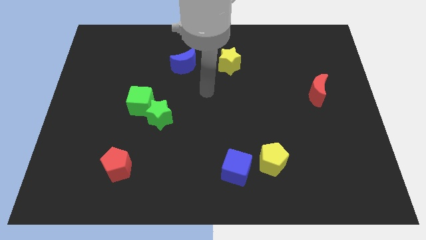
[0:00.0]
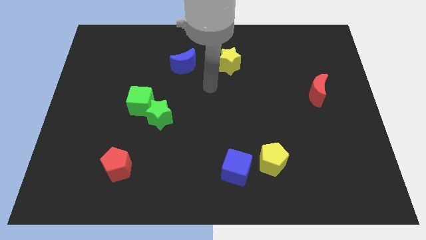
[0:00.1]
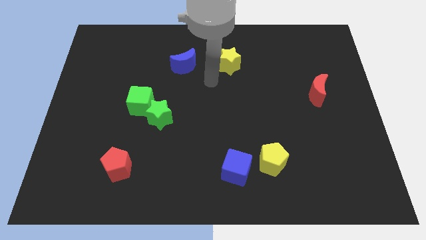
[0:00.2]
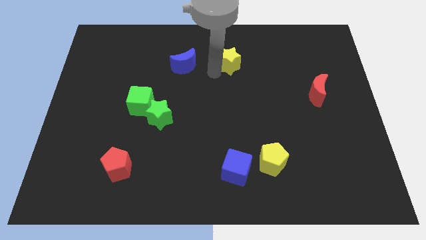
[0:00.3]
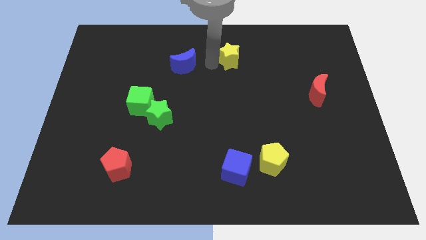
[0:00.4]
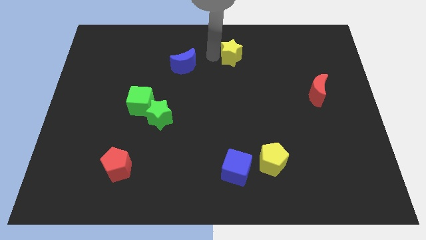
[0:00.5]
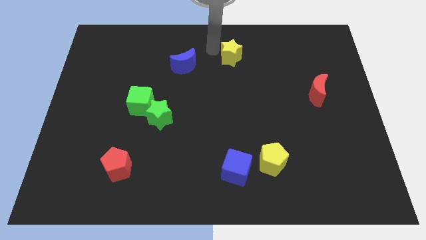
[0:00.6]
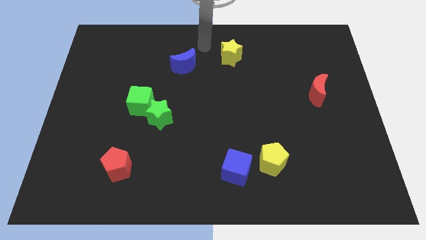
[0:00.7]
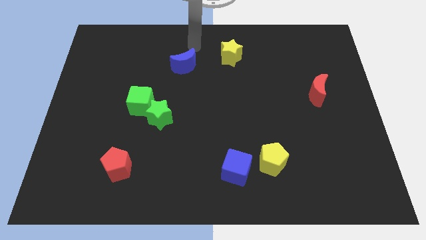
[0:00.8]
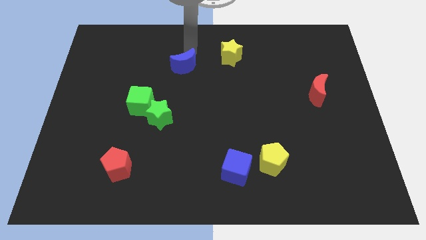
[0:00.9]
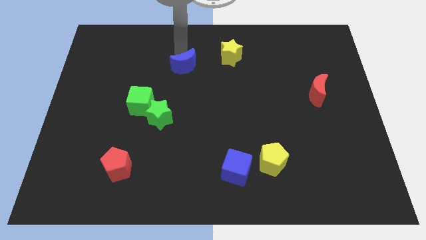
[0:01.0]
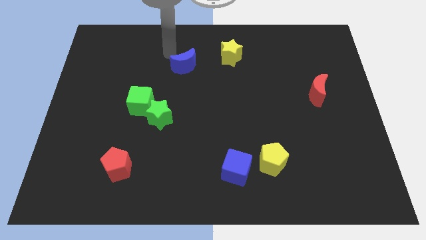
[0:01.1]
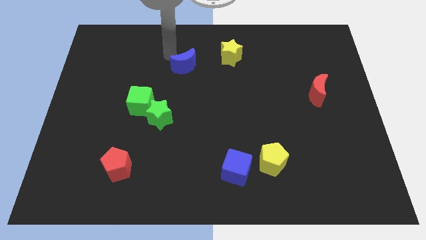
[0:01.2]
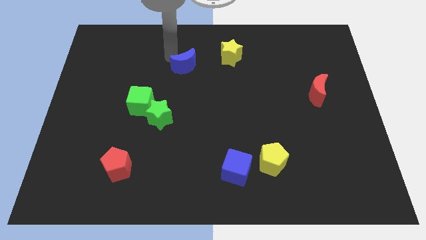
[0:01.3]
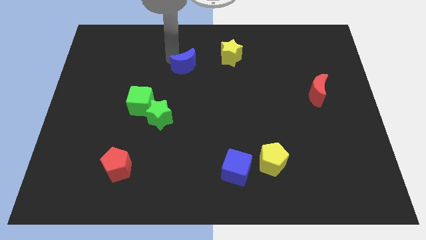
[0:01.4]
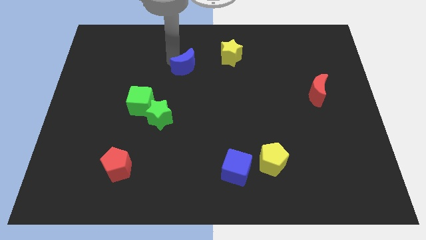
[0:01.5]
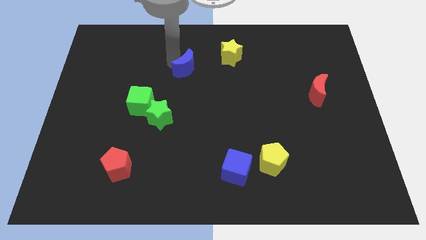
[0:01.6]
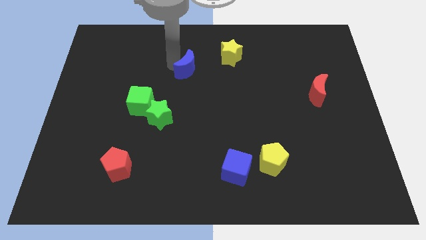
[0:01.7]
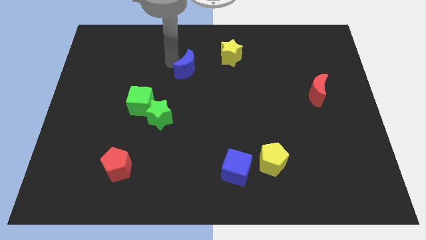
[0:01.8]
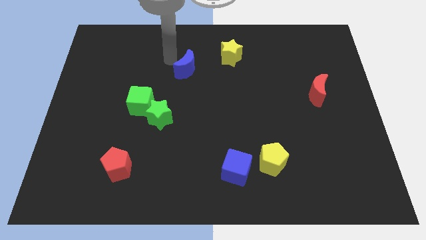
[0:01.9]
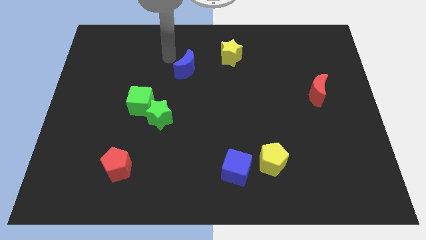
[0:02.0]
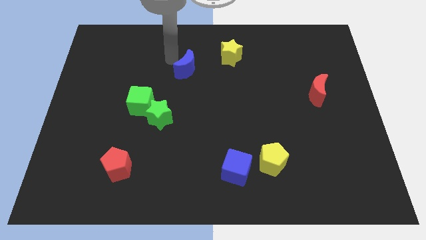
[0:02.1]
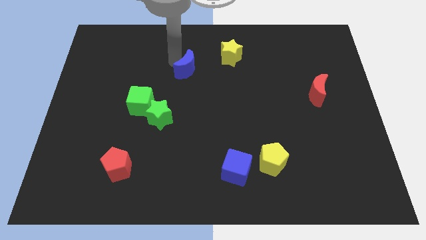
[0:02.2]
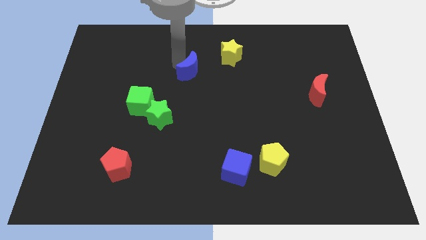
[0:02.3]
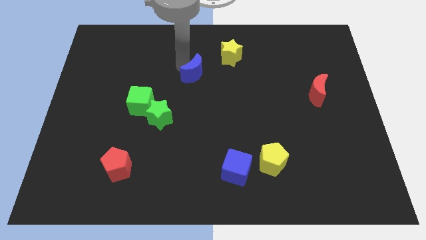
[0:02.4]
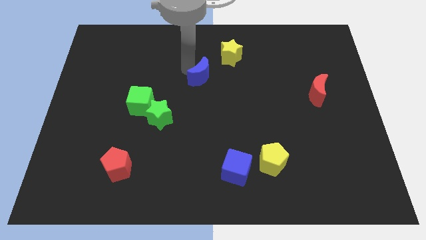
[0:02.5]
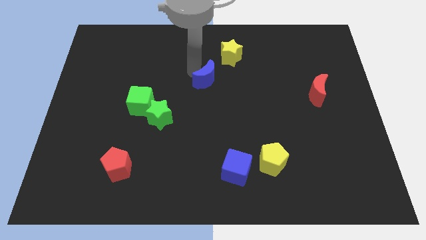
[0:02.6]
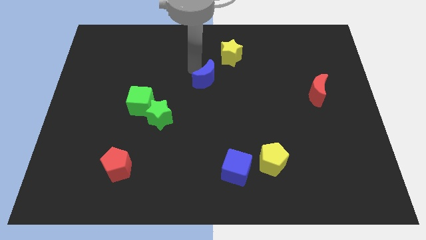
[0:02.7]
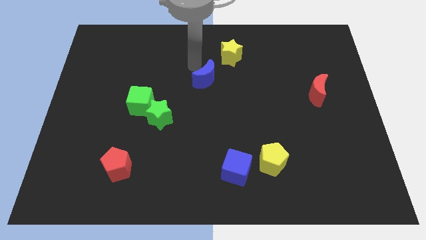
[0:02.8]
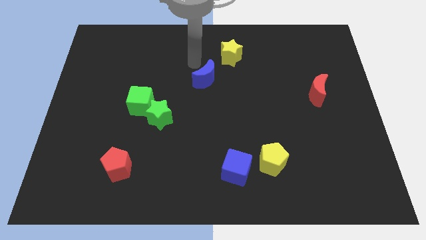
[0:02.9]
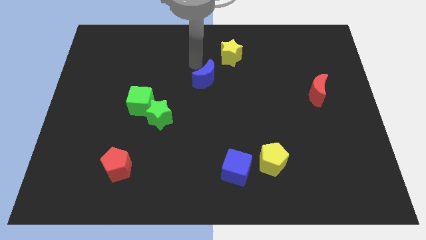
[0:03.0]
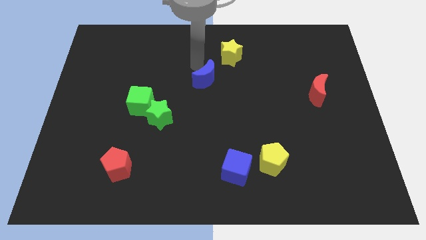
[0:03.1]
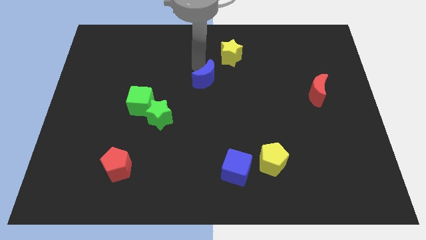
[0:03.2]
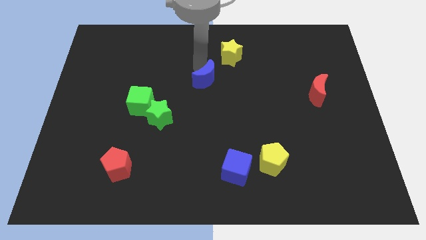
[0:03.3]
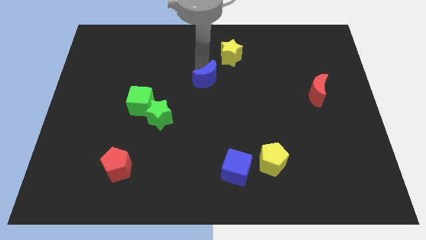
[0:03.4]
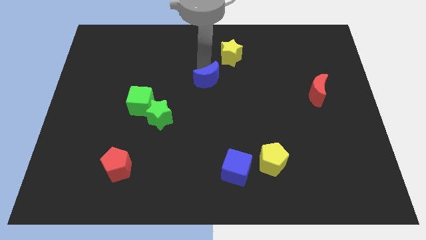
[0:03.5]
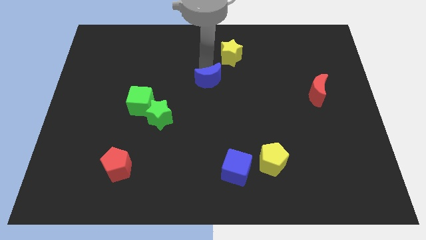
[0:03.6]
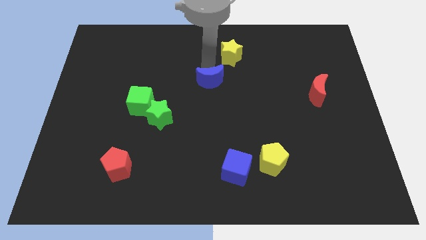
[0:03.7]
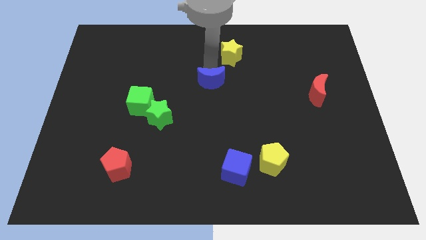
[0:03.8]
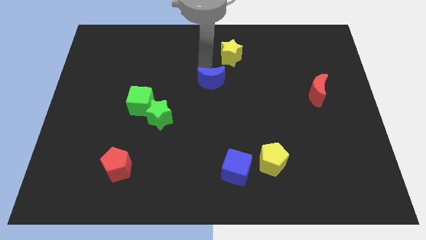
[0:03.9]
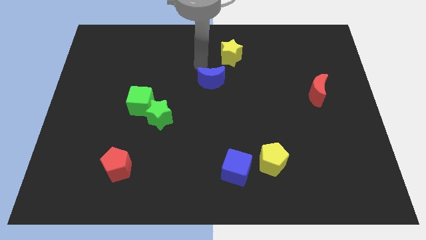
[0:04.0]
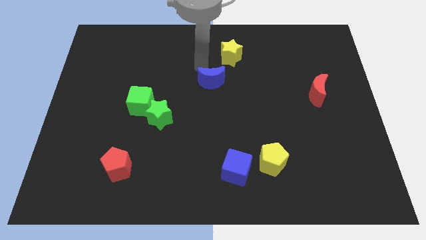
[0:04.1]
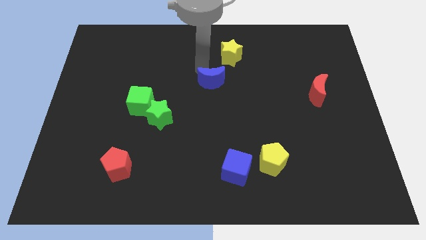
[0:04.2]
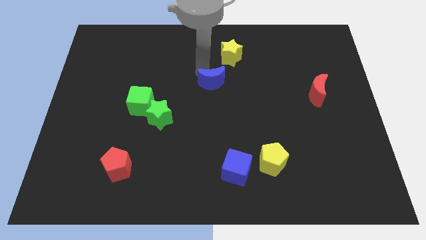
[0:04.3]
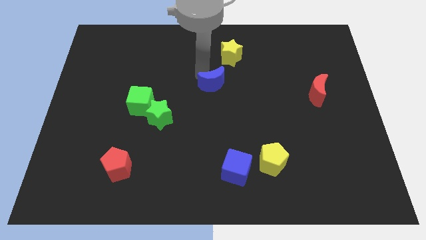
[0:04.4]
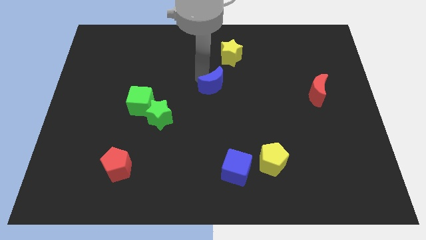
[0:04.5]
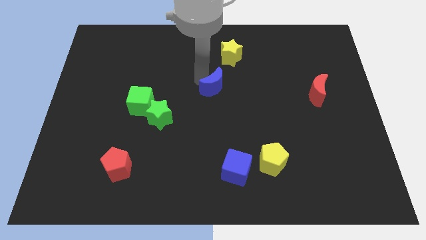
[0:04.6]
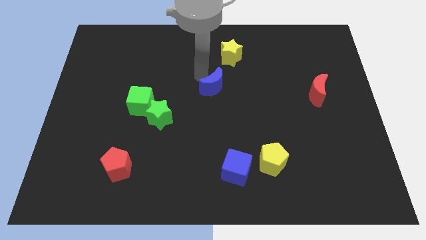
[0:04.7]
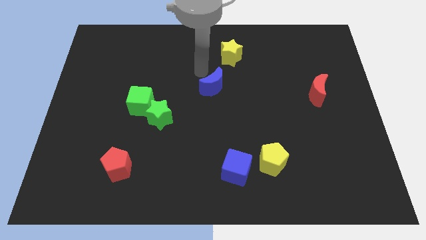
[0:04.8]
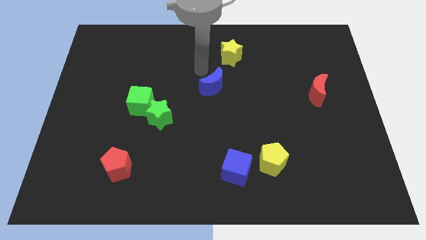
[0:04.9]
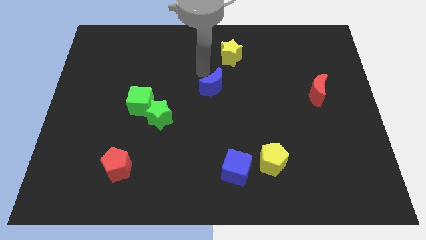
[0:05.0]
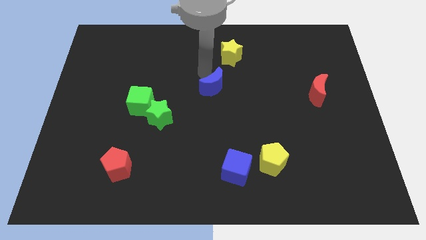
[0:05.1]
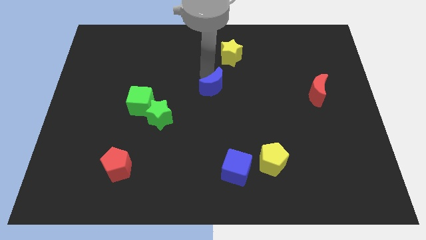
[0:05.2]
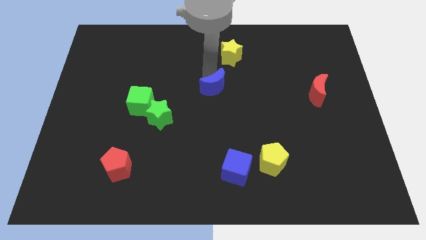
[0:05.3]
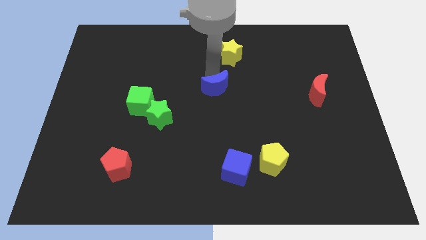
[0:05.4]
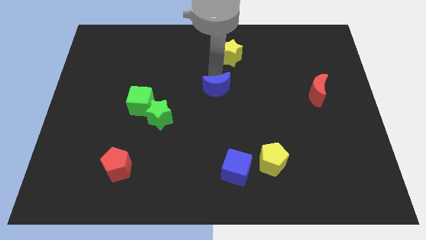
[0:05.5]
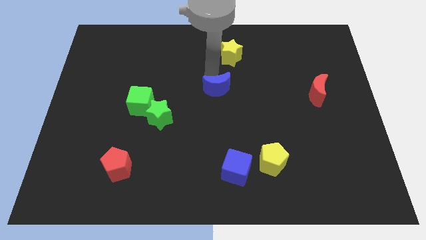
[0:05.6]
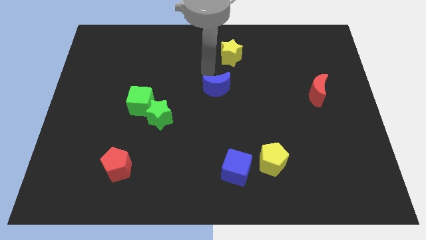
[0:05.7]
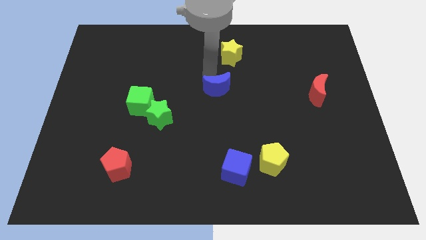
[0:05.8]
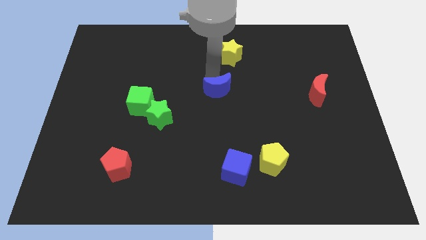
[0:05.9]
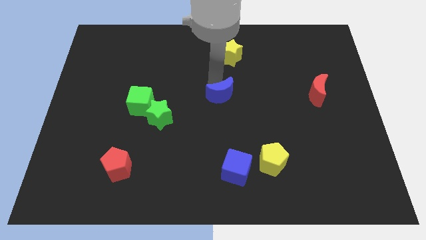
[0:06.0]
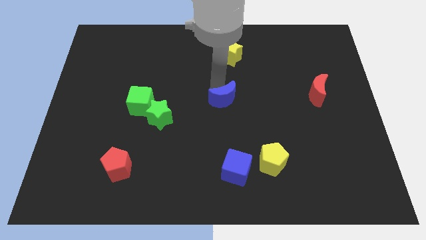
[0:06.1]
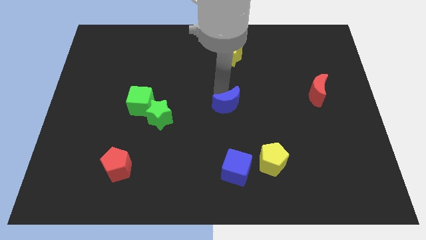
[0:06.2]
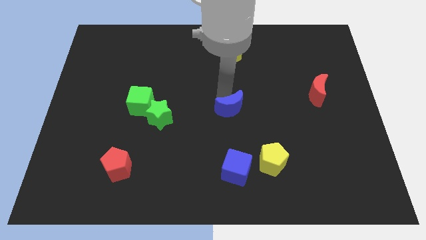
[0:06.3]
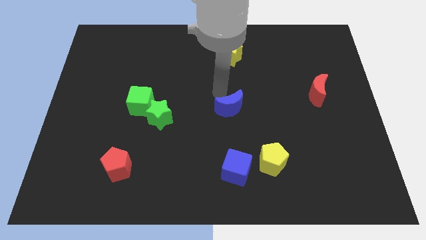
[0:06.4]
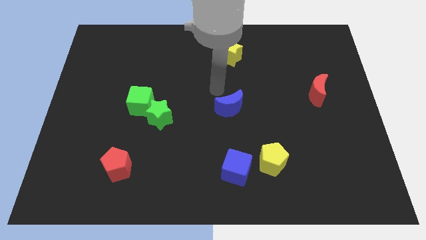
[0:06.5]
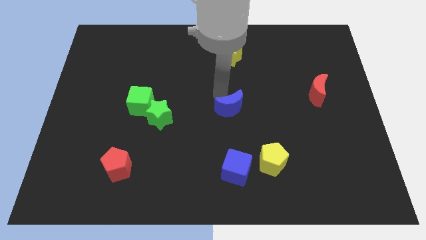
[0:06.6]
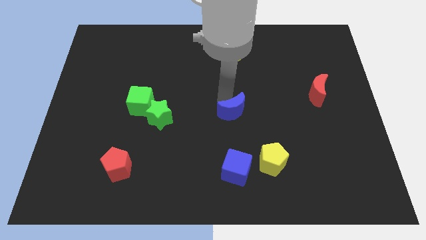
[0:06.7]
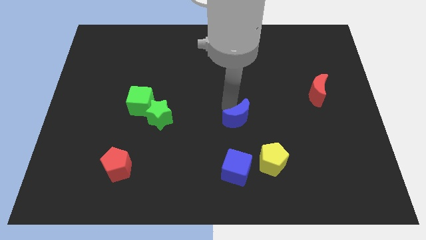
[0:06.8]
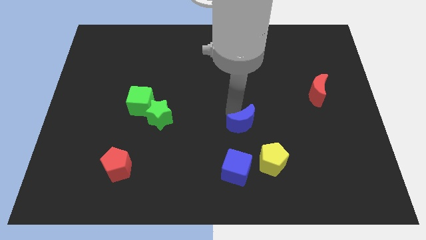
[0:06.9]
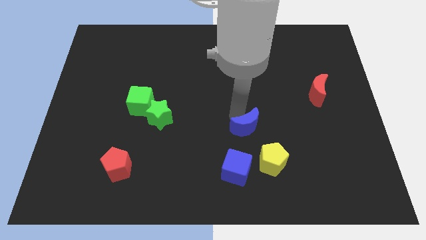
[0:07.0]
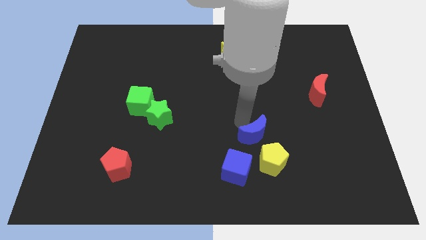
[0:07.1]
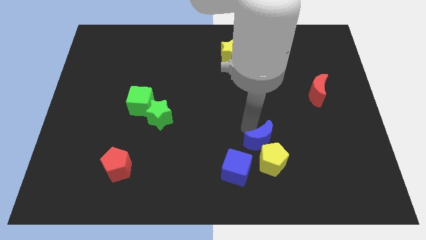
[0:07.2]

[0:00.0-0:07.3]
put the blue moon next to the yellow pentagon
